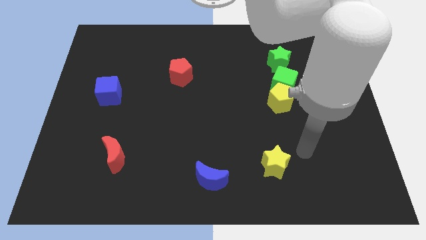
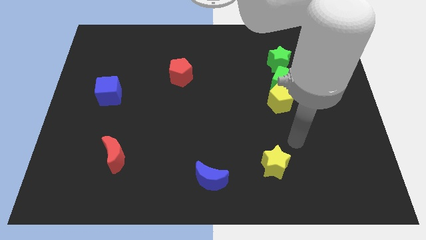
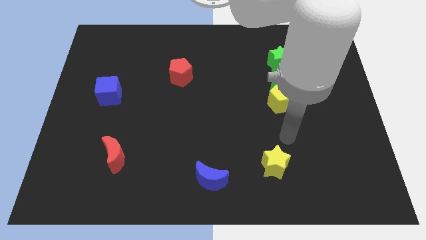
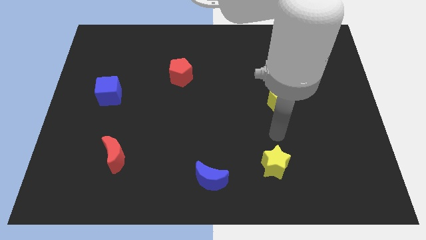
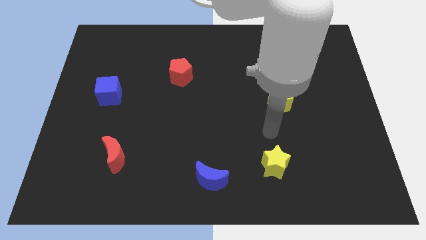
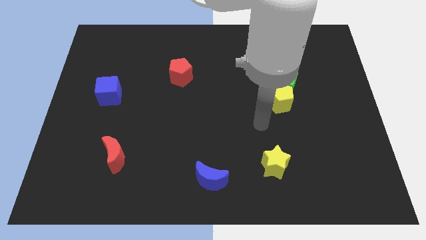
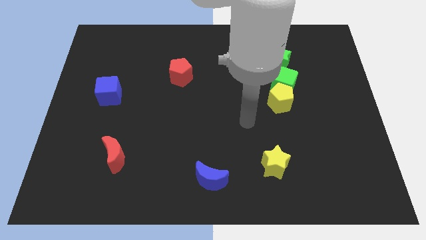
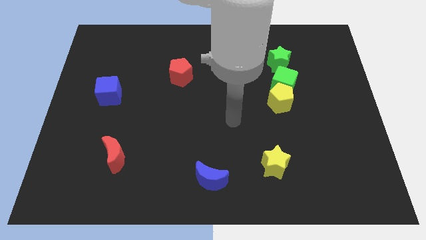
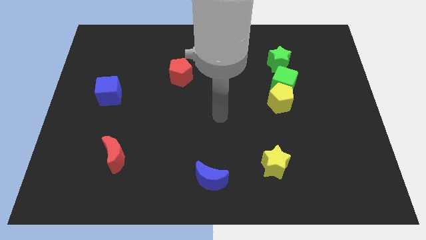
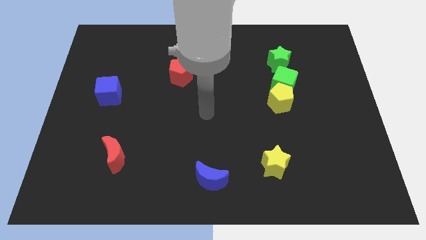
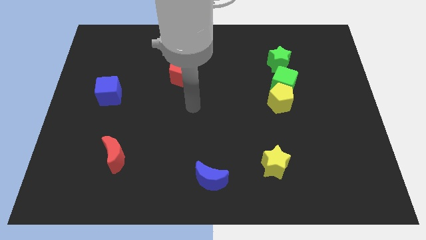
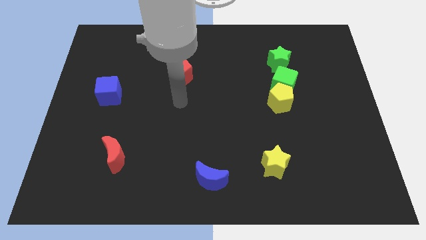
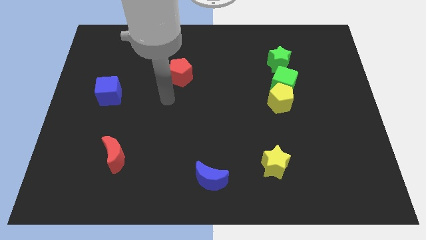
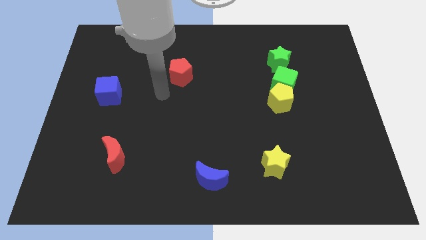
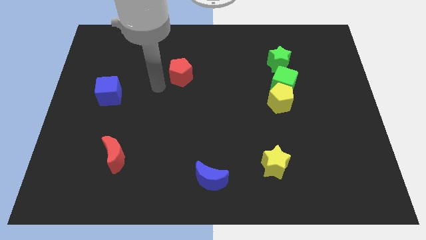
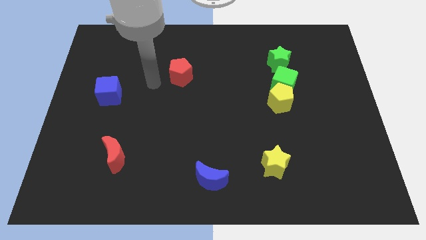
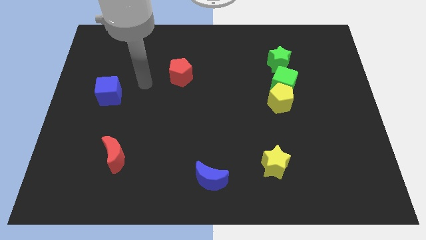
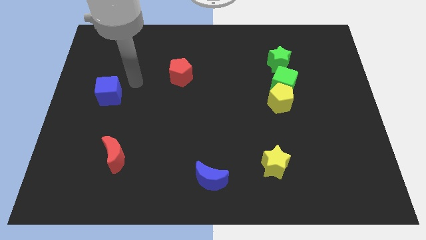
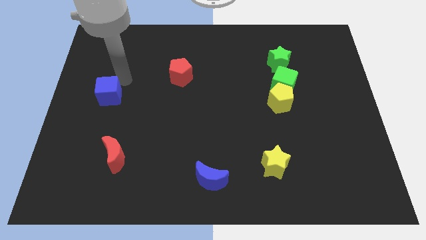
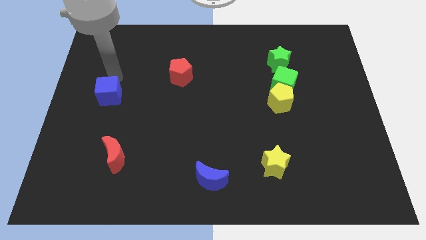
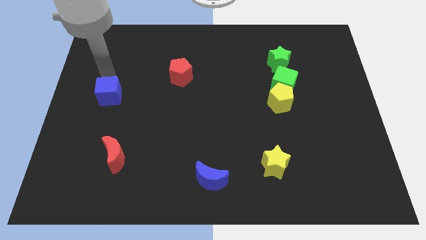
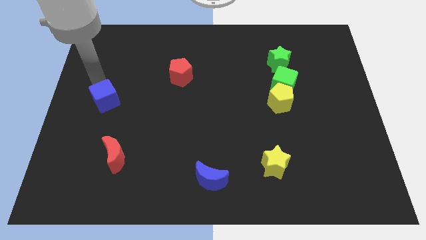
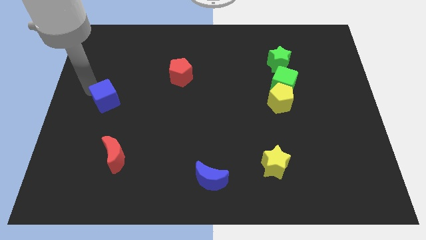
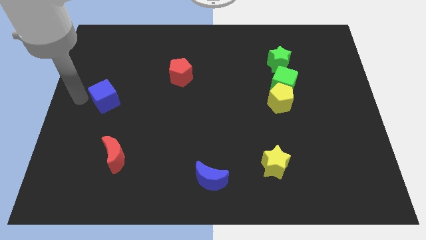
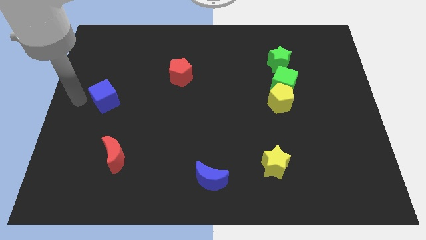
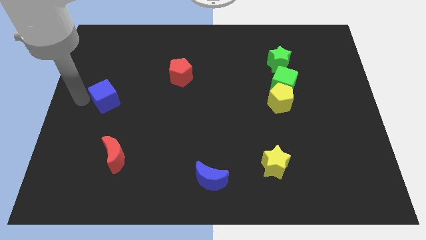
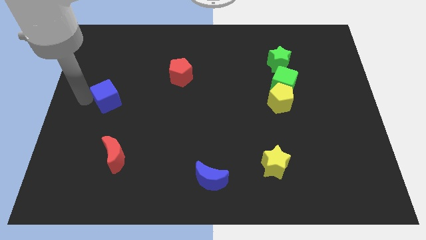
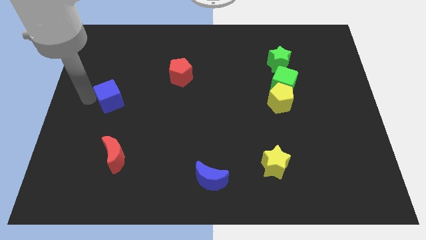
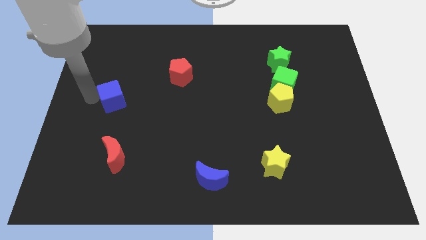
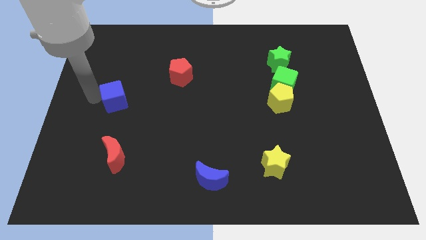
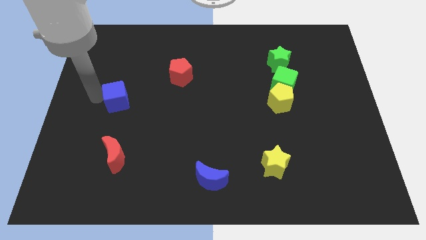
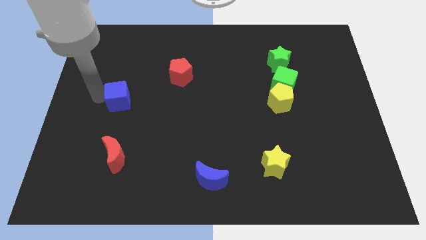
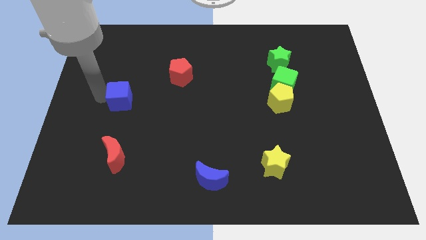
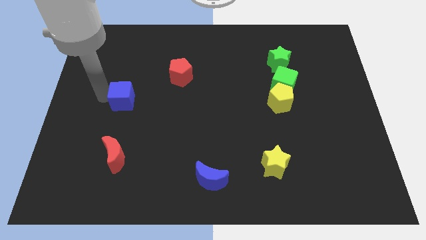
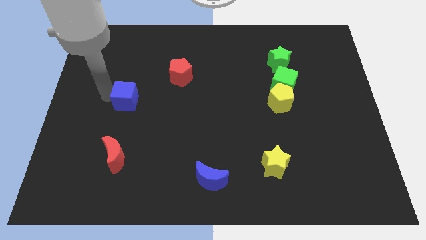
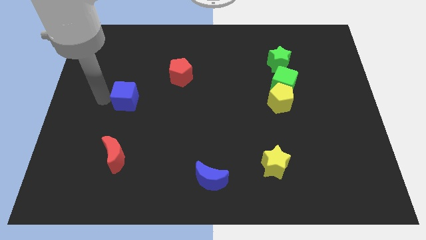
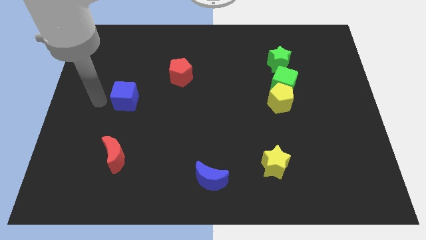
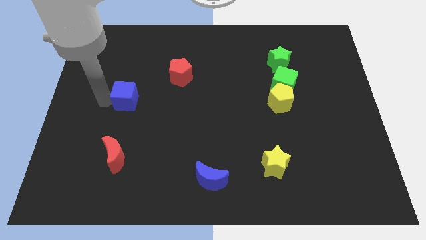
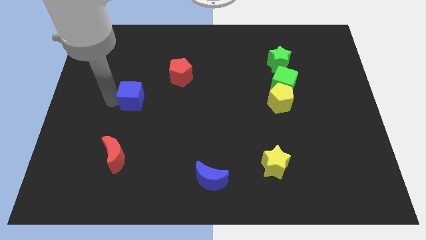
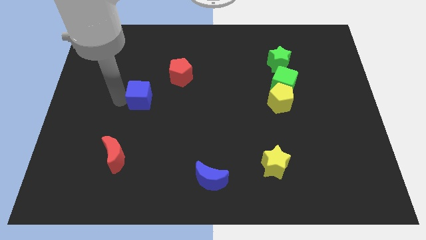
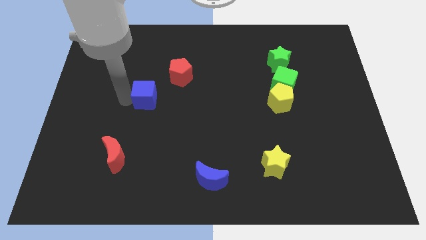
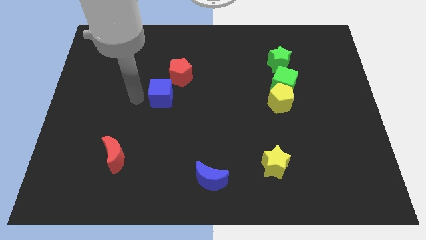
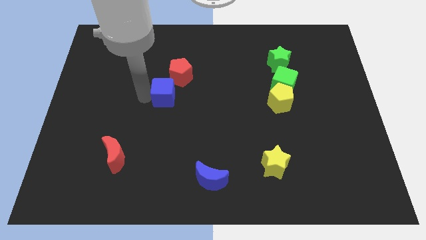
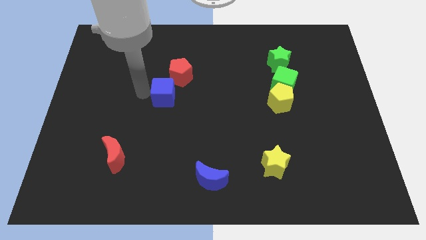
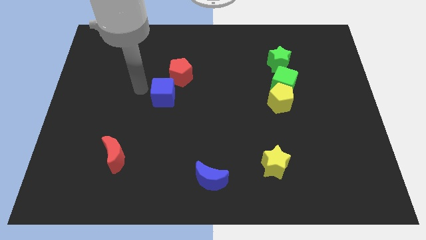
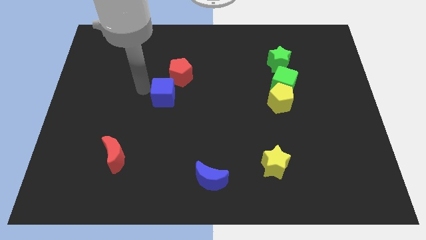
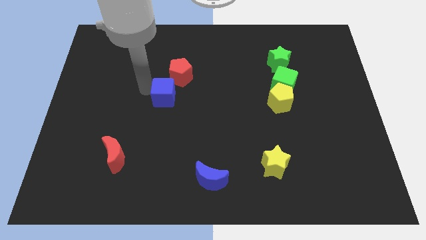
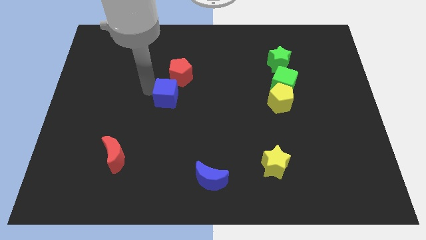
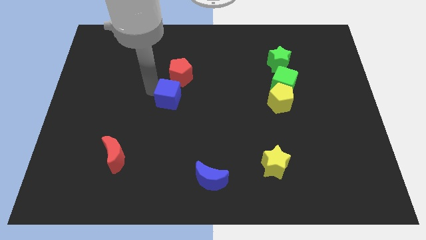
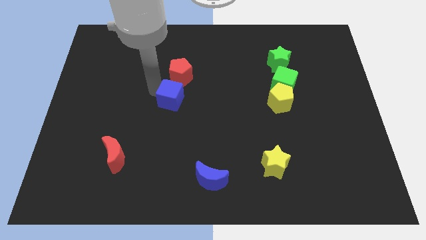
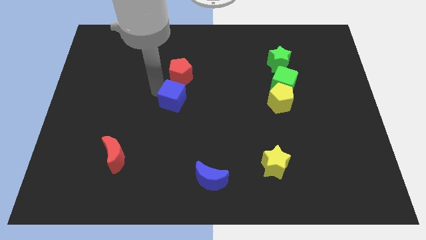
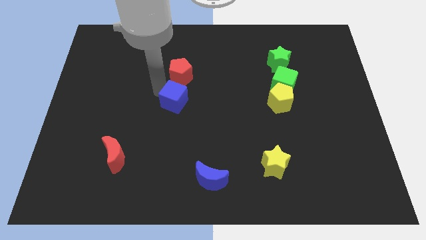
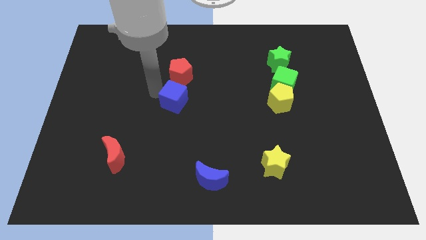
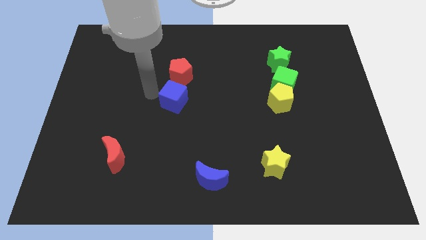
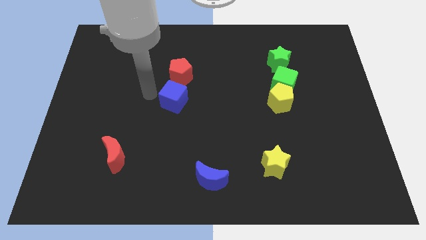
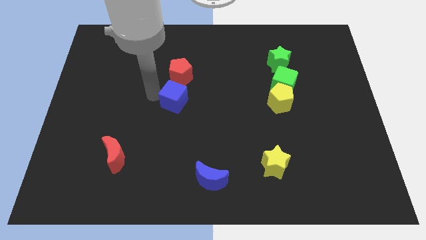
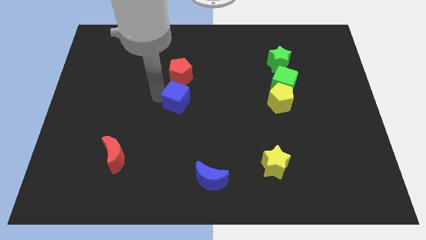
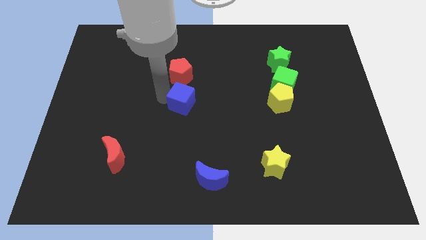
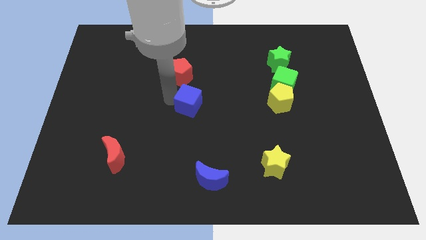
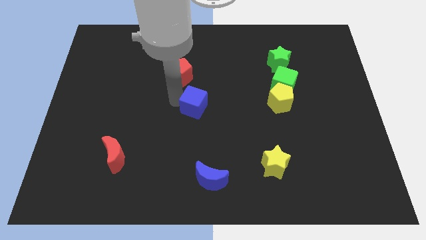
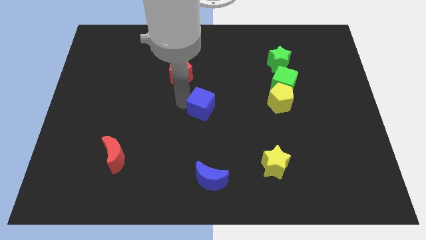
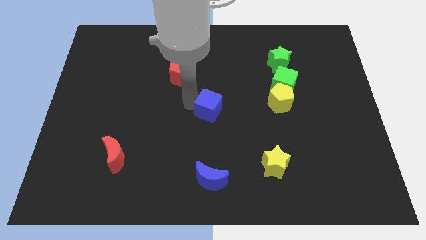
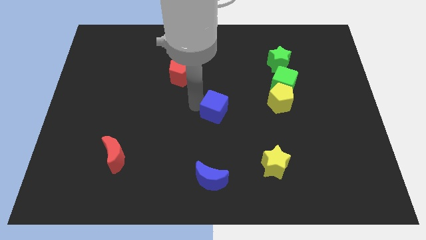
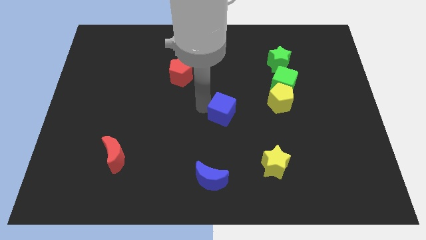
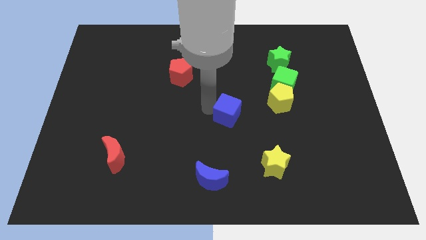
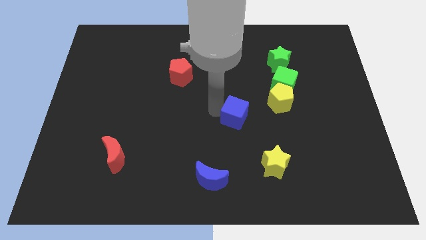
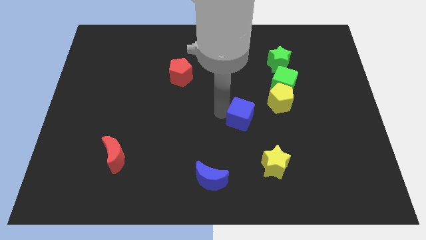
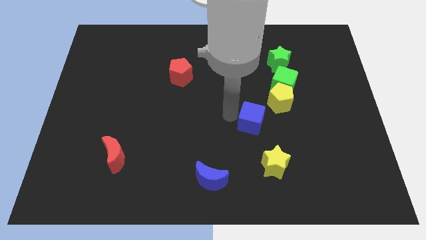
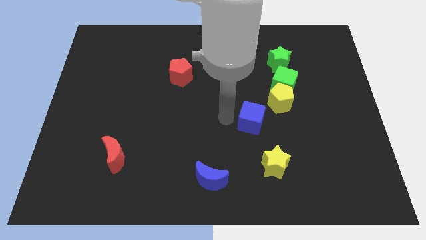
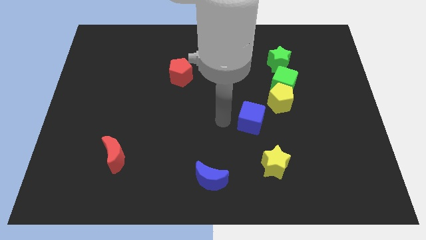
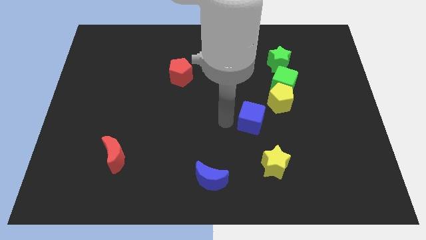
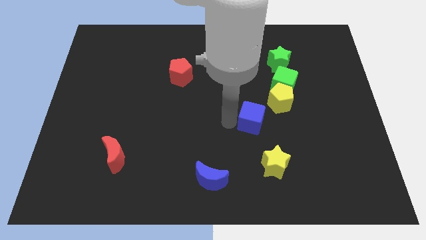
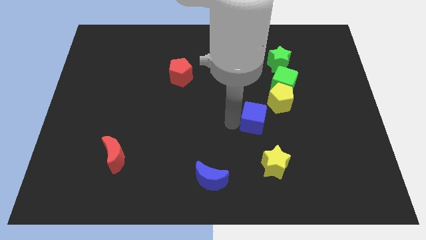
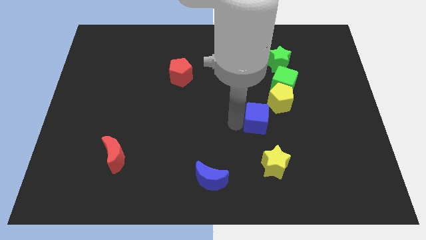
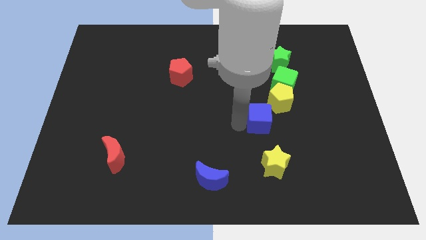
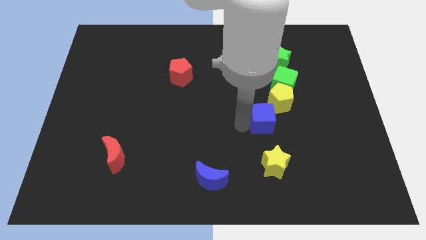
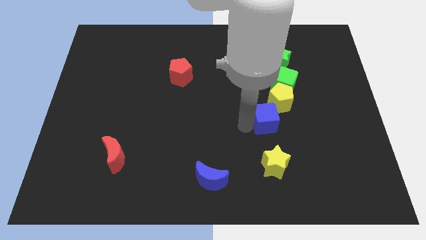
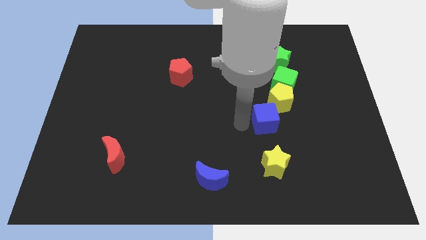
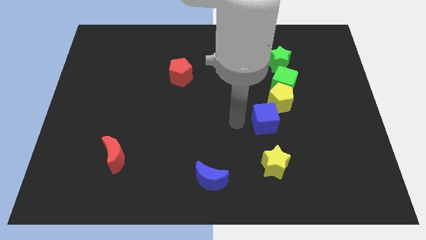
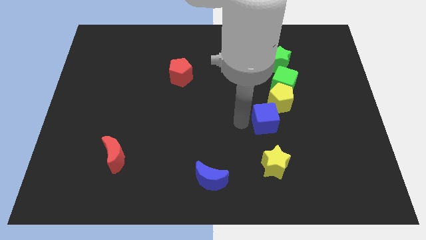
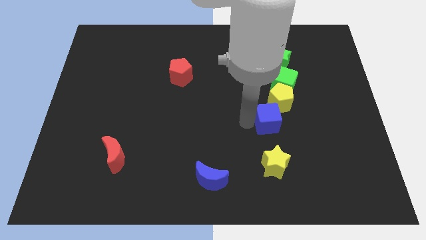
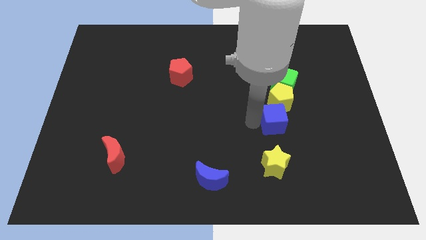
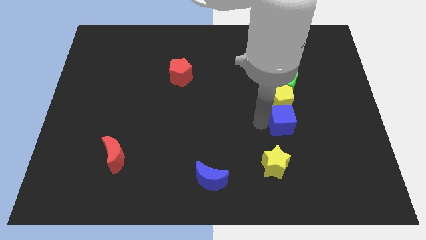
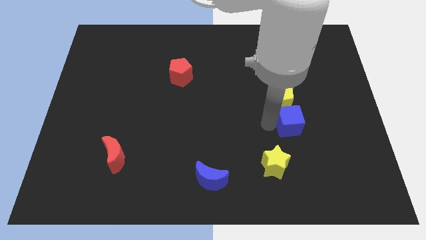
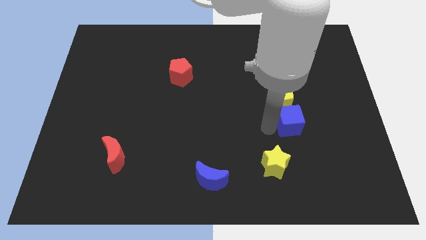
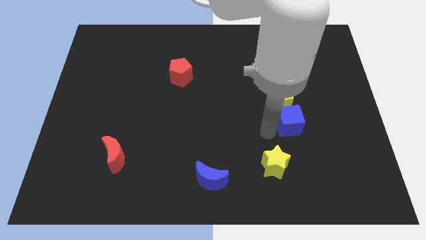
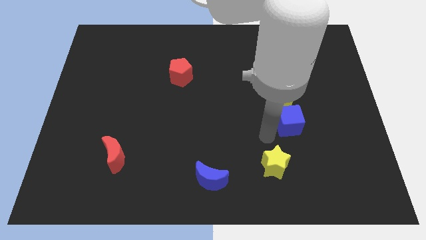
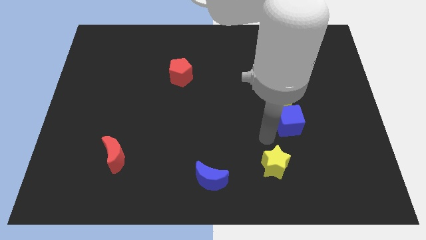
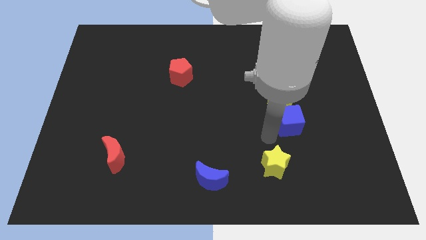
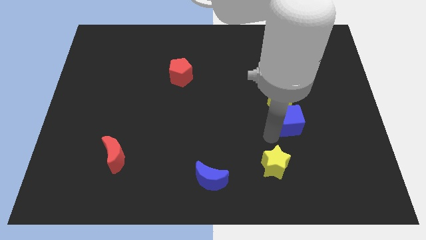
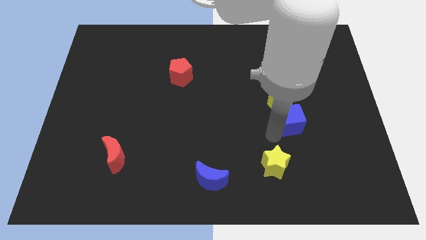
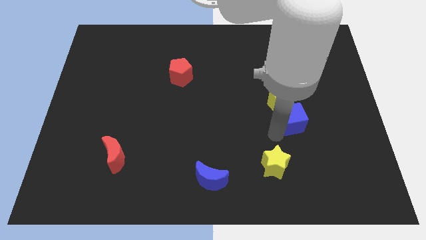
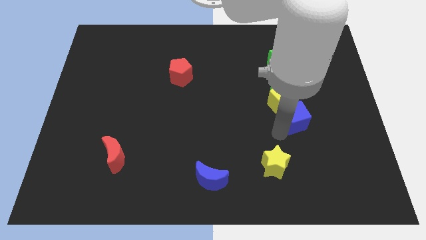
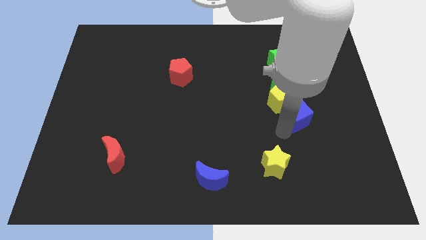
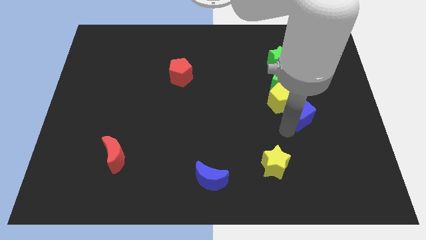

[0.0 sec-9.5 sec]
push the blue cube to the right of the yellow pentagon
